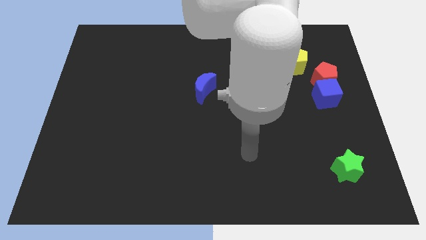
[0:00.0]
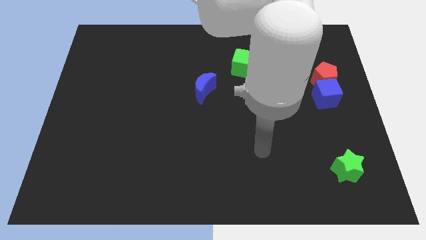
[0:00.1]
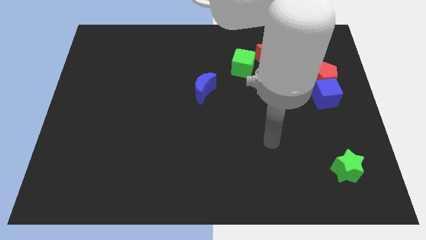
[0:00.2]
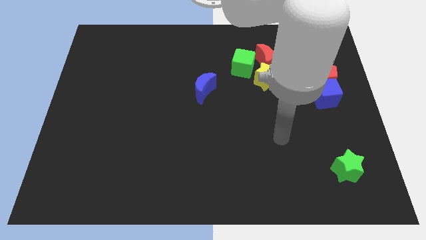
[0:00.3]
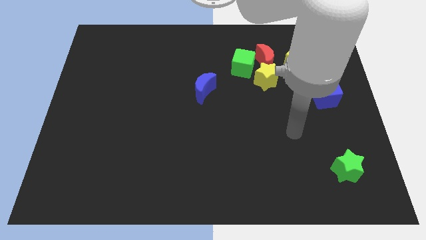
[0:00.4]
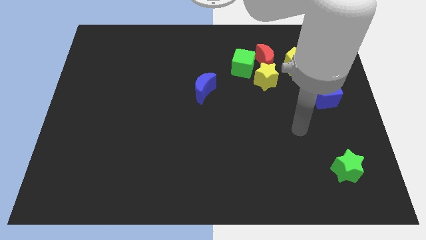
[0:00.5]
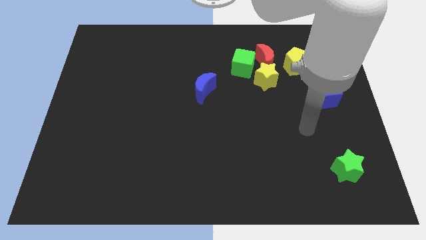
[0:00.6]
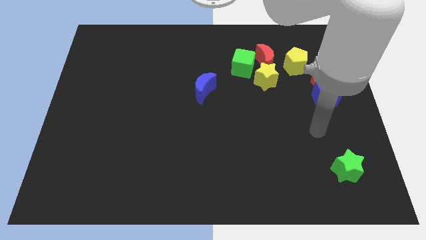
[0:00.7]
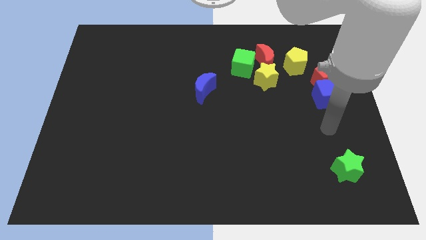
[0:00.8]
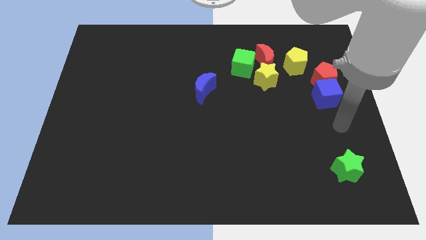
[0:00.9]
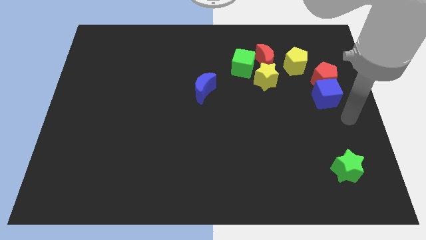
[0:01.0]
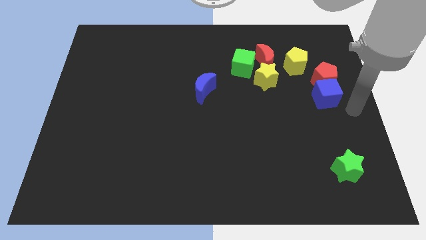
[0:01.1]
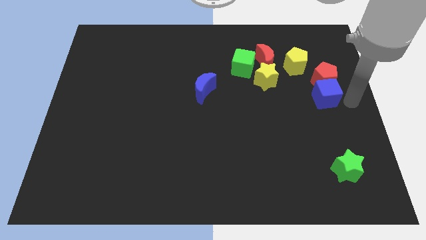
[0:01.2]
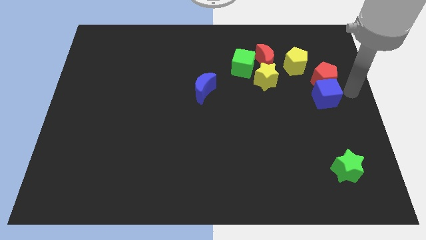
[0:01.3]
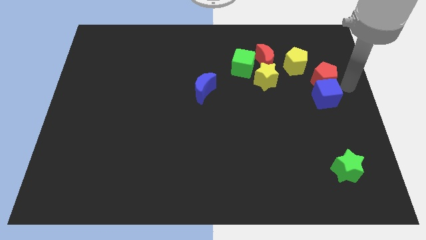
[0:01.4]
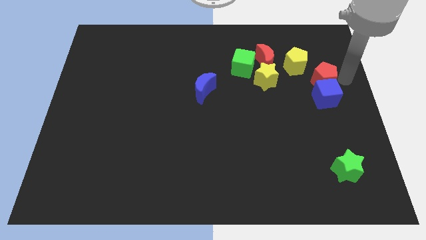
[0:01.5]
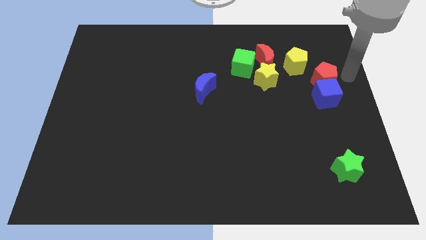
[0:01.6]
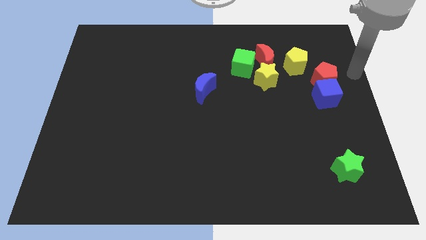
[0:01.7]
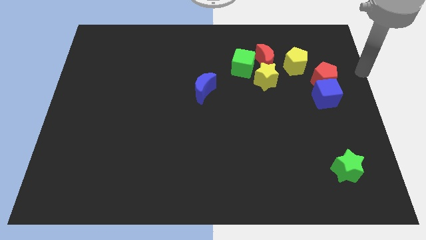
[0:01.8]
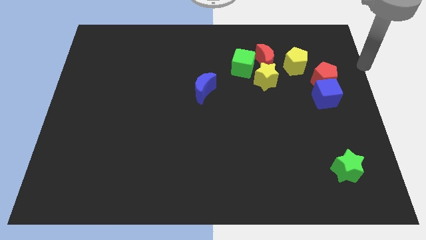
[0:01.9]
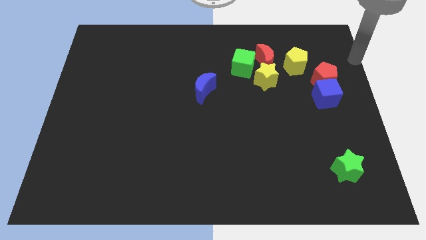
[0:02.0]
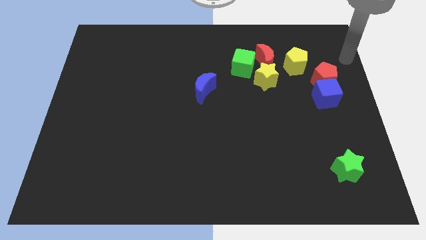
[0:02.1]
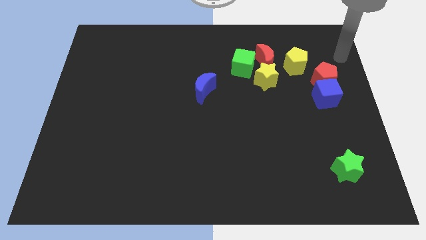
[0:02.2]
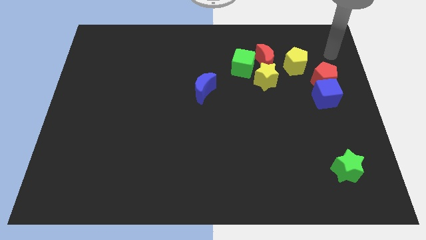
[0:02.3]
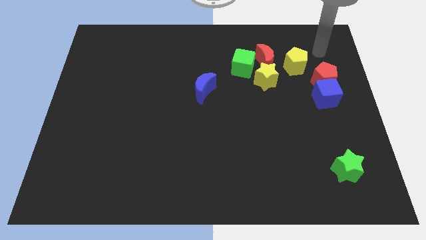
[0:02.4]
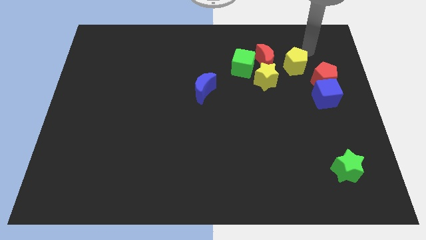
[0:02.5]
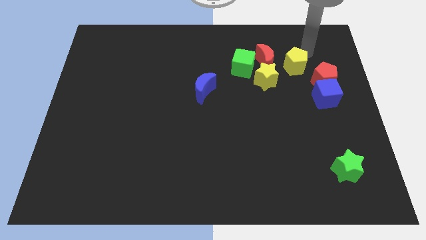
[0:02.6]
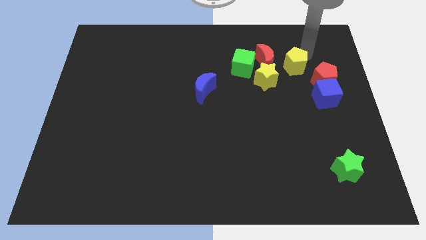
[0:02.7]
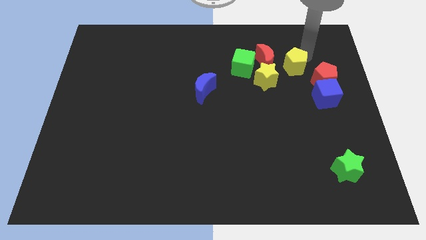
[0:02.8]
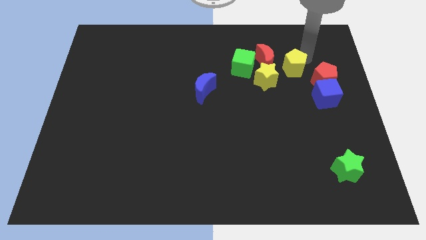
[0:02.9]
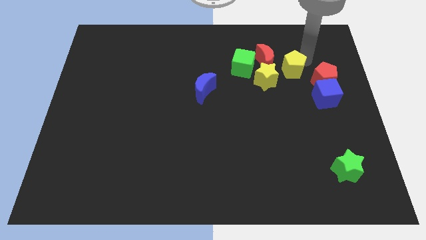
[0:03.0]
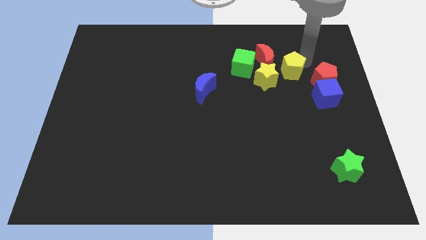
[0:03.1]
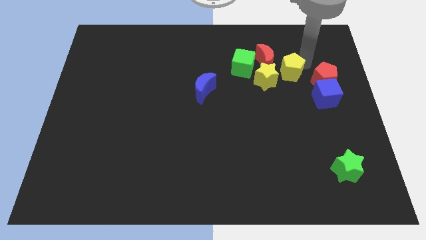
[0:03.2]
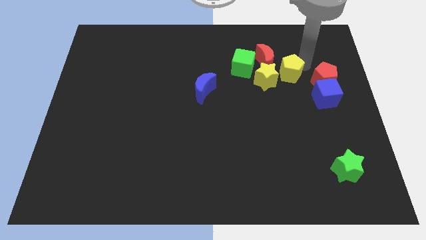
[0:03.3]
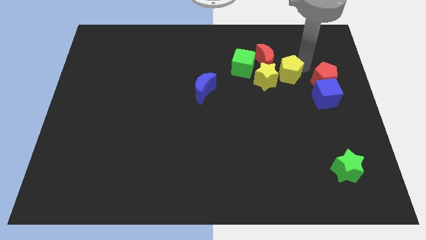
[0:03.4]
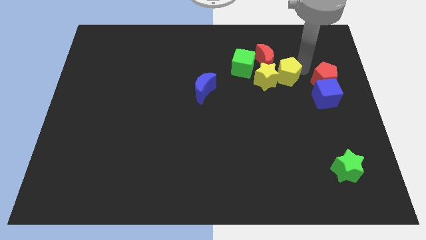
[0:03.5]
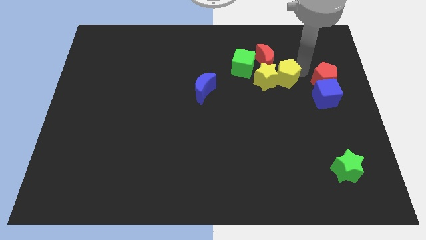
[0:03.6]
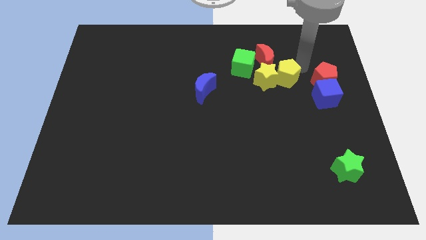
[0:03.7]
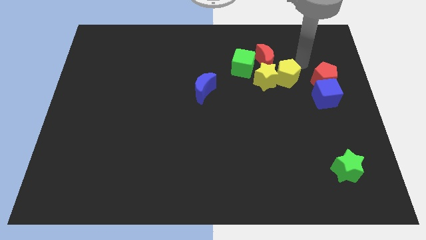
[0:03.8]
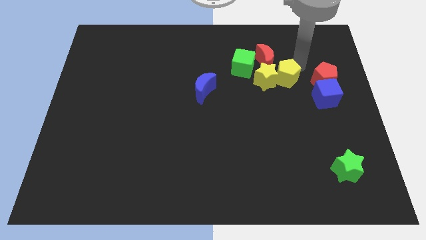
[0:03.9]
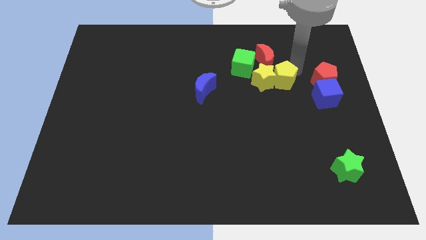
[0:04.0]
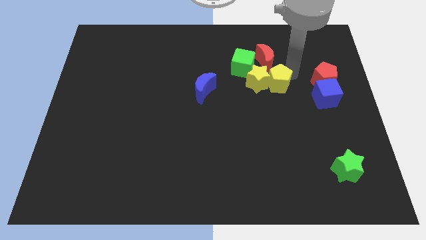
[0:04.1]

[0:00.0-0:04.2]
slightly slide the yellow pentagon down and to the left

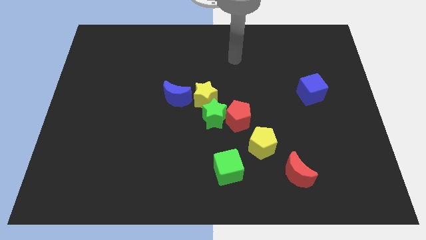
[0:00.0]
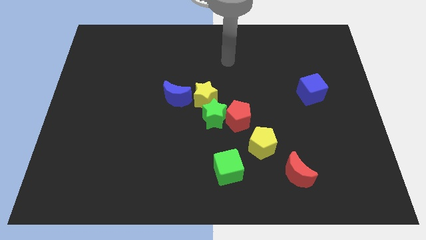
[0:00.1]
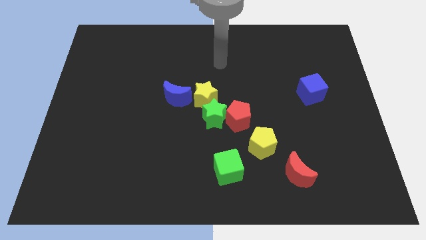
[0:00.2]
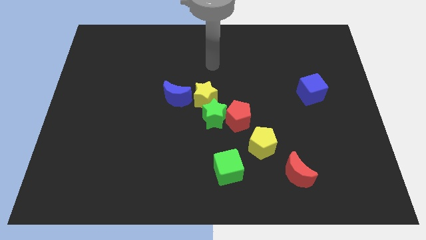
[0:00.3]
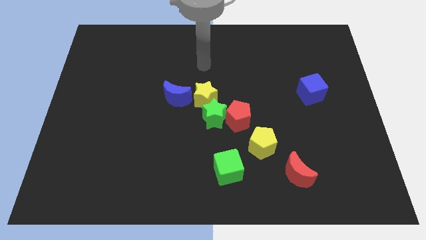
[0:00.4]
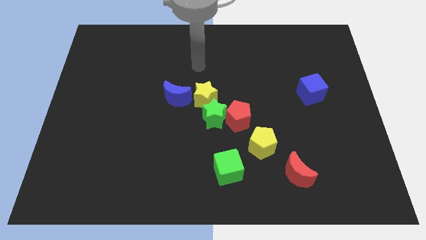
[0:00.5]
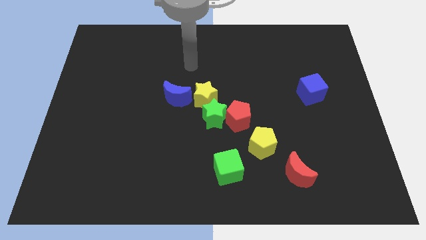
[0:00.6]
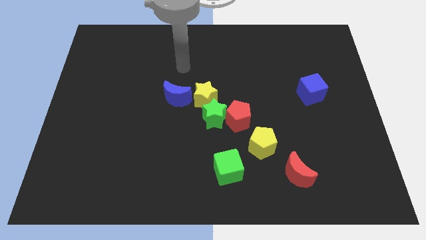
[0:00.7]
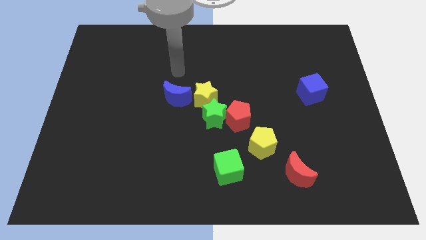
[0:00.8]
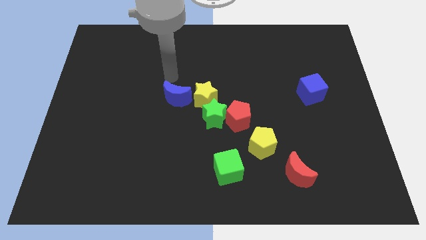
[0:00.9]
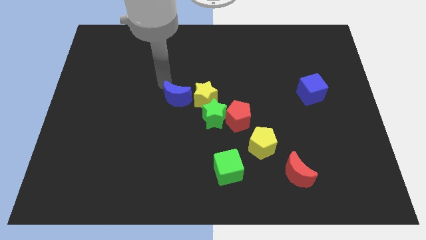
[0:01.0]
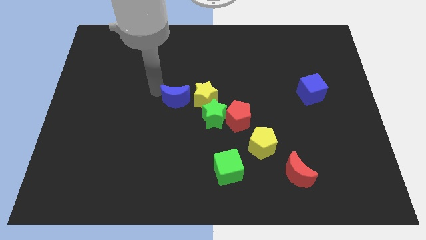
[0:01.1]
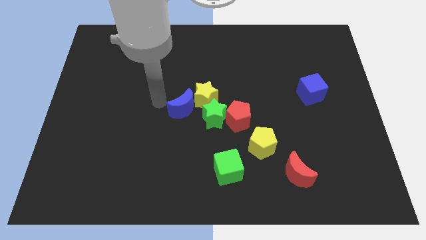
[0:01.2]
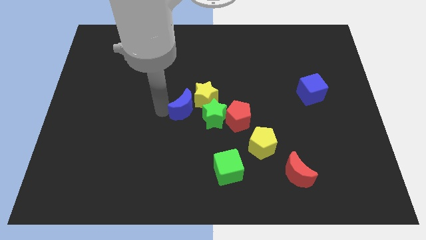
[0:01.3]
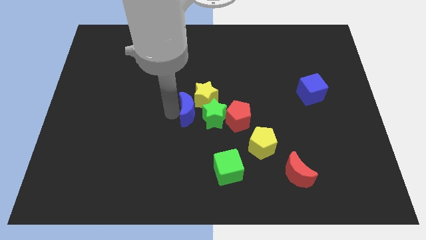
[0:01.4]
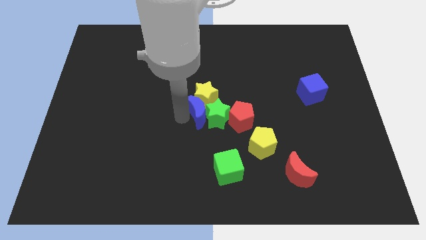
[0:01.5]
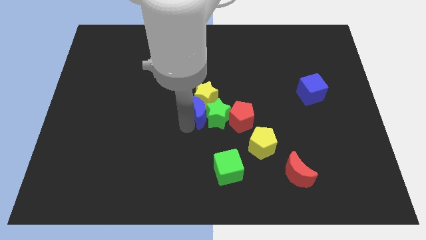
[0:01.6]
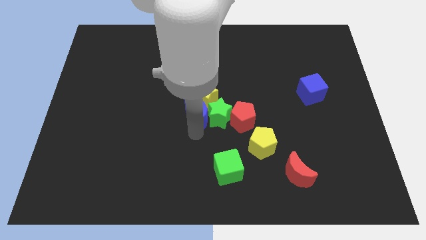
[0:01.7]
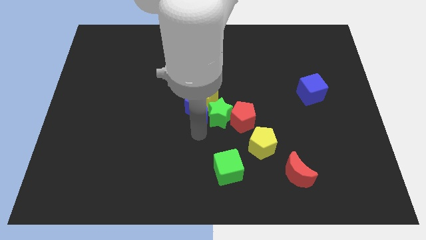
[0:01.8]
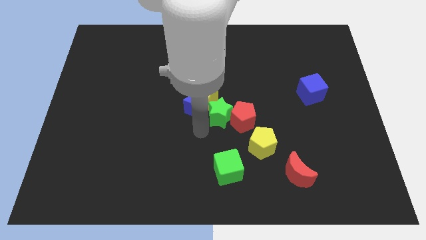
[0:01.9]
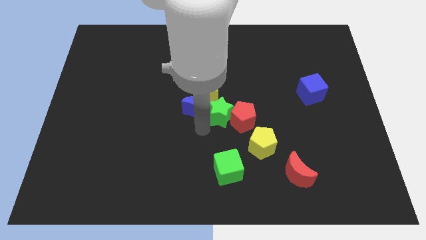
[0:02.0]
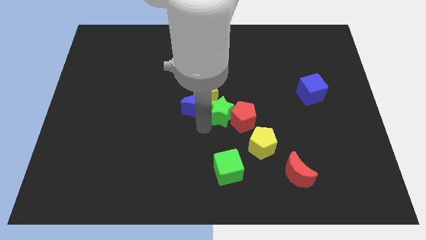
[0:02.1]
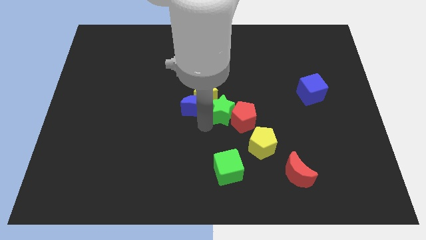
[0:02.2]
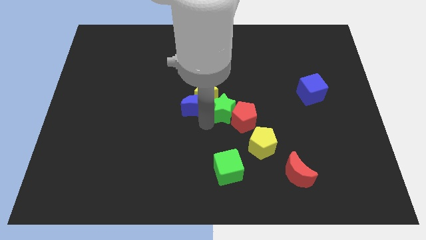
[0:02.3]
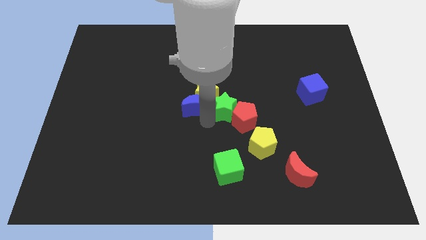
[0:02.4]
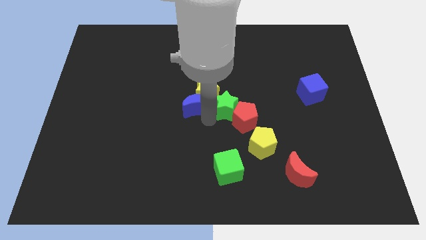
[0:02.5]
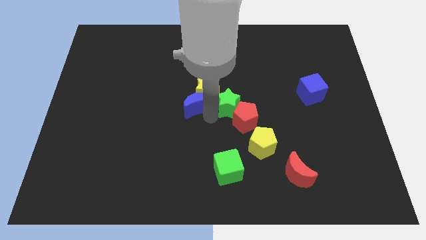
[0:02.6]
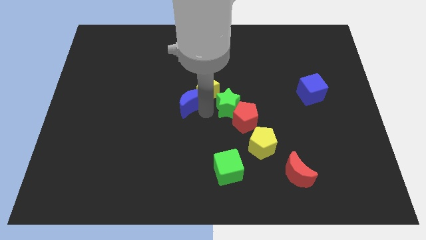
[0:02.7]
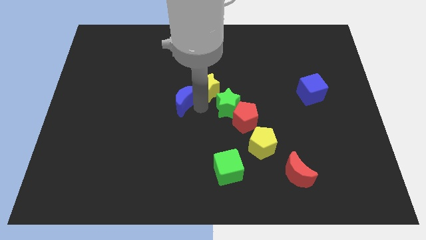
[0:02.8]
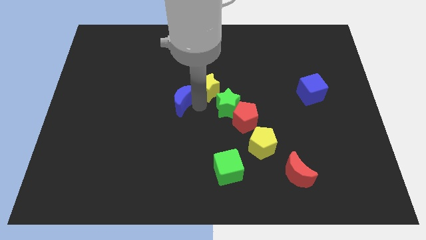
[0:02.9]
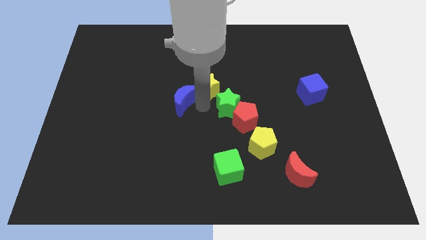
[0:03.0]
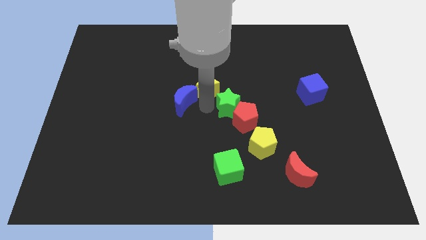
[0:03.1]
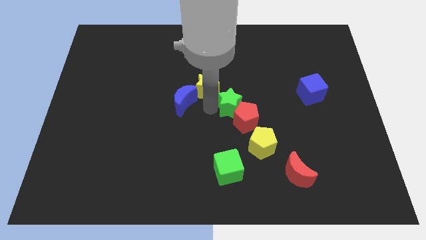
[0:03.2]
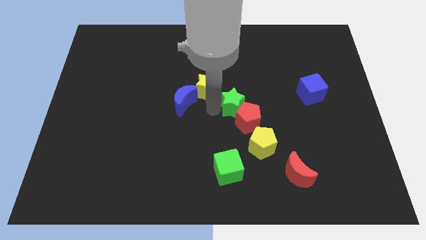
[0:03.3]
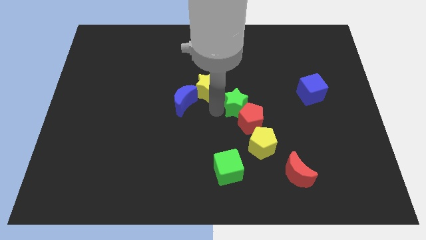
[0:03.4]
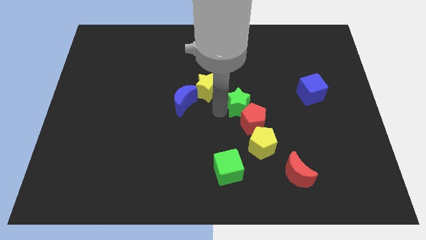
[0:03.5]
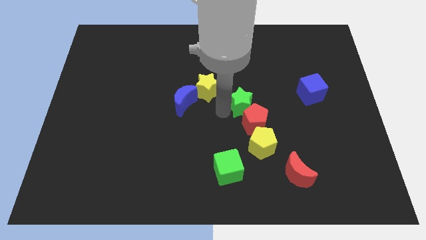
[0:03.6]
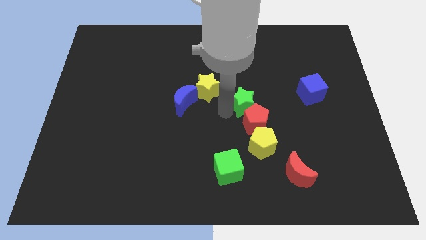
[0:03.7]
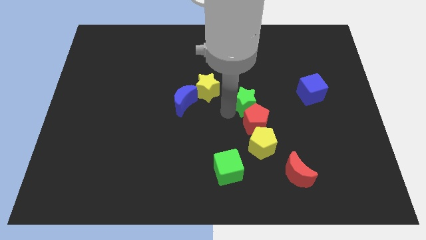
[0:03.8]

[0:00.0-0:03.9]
slide the green star a bit right

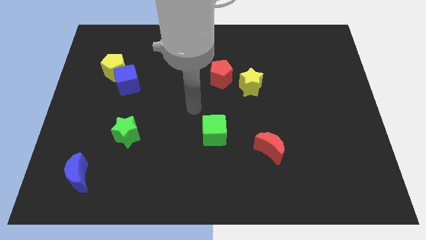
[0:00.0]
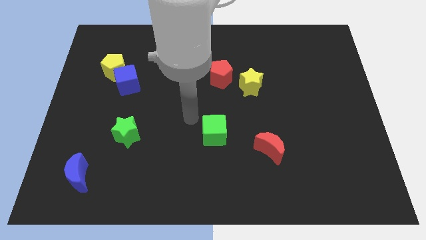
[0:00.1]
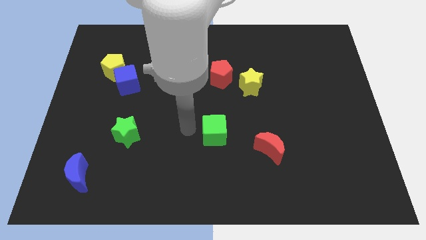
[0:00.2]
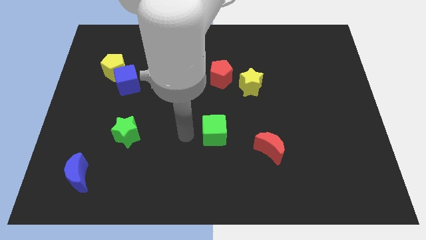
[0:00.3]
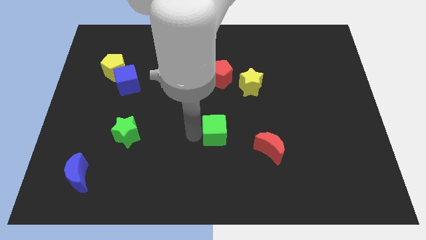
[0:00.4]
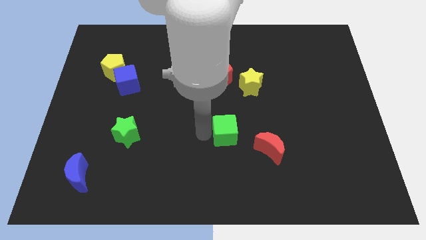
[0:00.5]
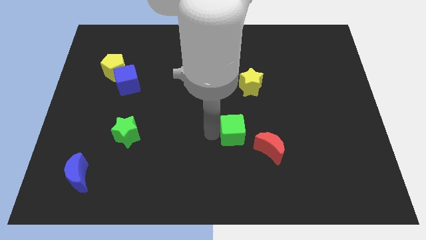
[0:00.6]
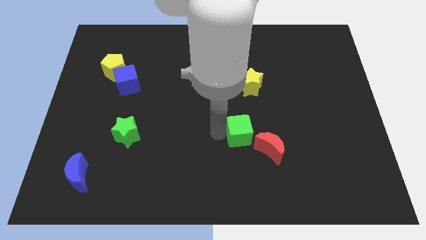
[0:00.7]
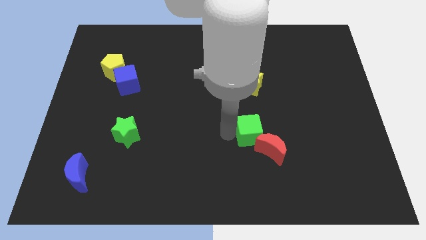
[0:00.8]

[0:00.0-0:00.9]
slightly push the green cube right
